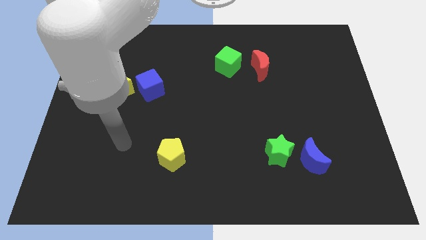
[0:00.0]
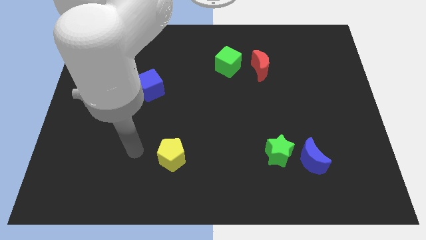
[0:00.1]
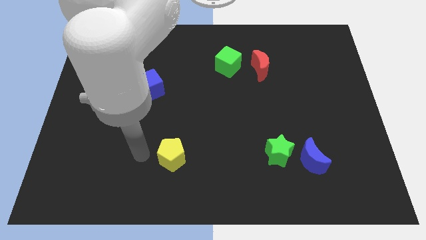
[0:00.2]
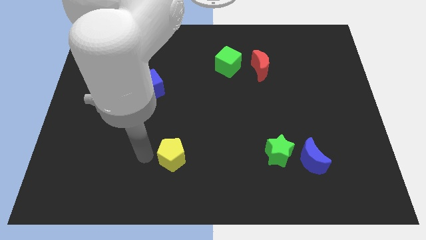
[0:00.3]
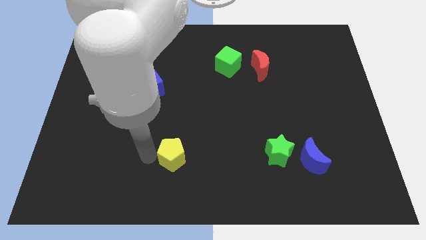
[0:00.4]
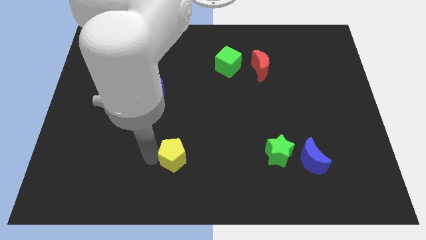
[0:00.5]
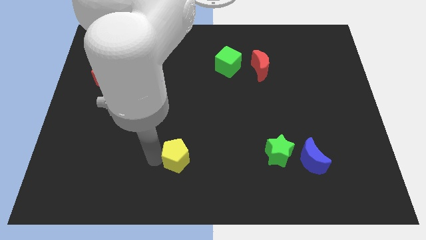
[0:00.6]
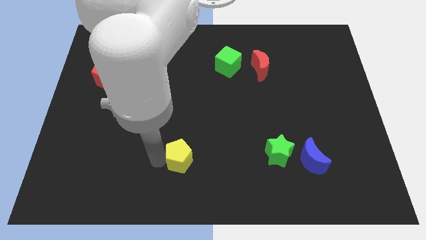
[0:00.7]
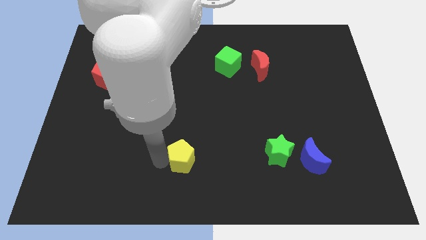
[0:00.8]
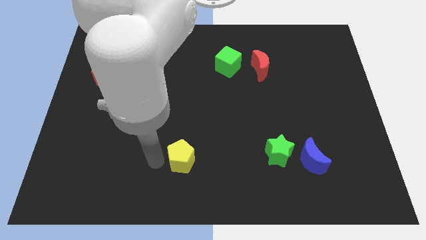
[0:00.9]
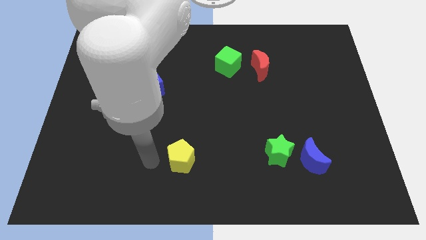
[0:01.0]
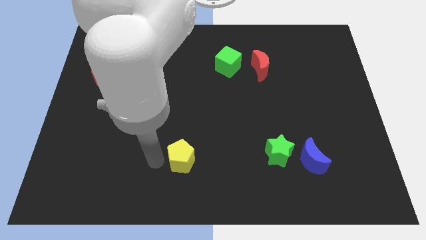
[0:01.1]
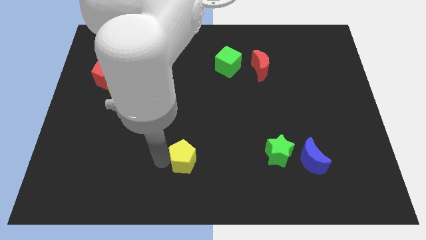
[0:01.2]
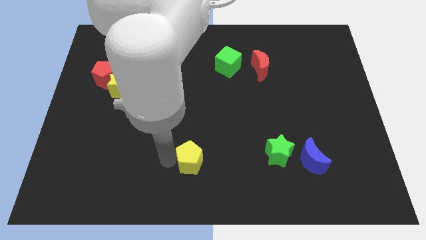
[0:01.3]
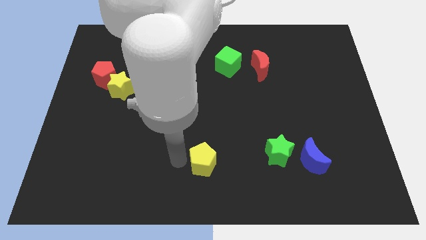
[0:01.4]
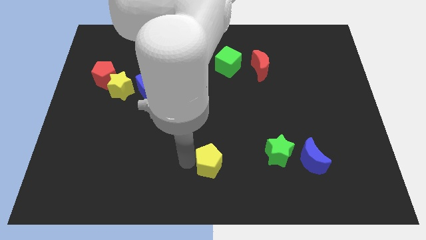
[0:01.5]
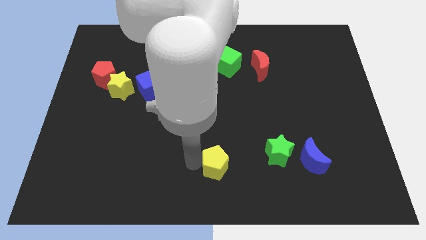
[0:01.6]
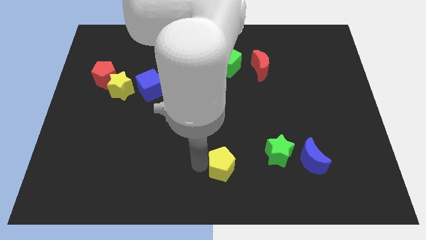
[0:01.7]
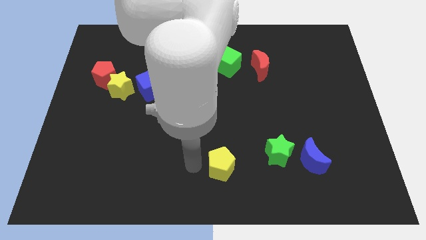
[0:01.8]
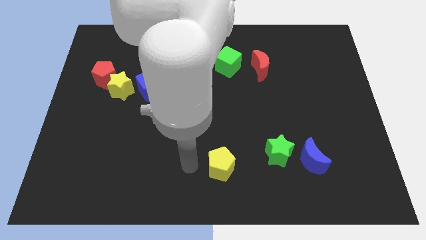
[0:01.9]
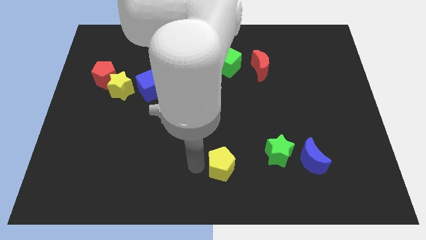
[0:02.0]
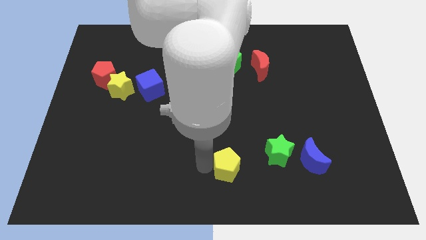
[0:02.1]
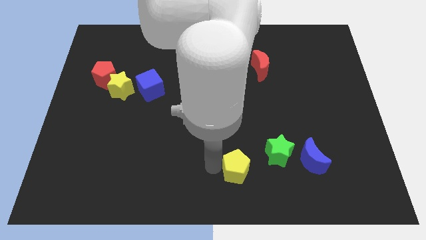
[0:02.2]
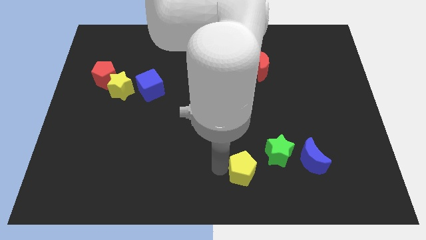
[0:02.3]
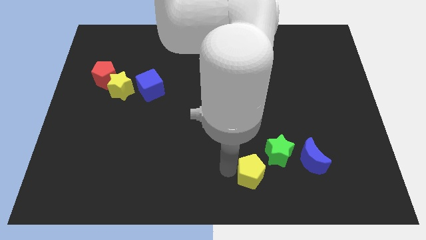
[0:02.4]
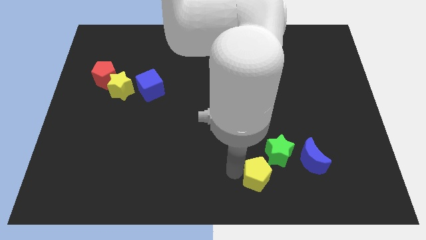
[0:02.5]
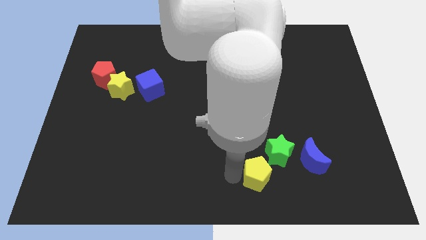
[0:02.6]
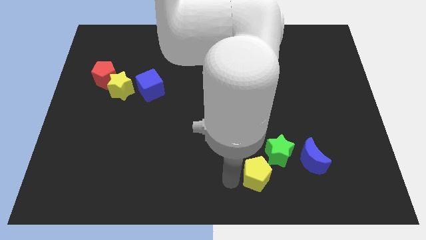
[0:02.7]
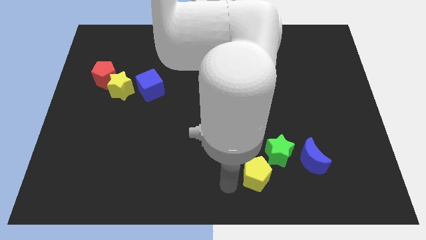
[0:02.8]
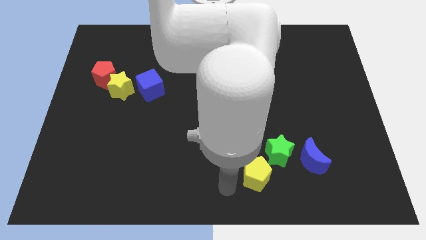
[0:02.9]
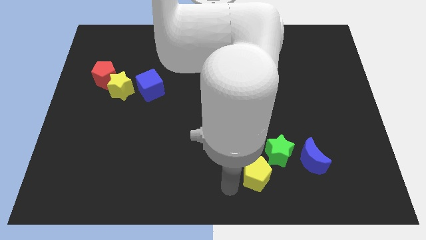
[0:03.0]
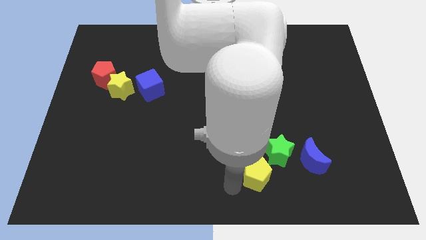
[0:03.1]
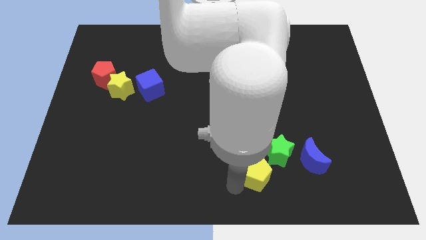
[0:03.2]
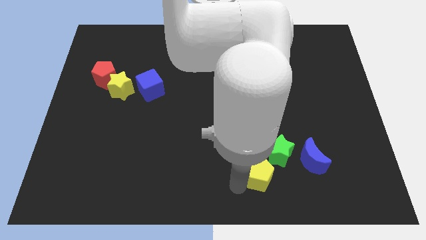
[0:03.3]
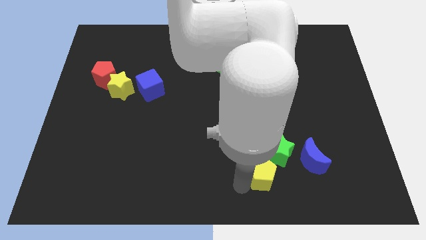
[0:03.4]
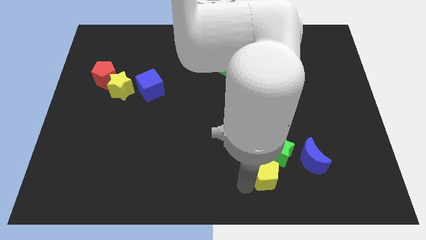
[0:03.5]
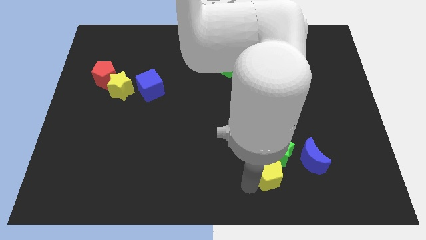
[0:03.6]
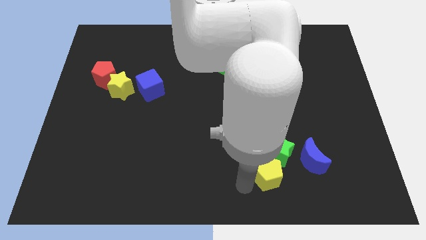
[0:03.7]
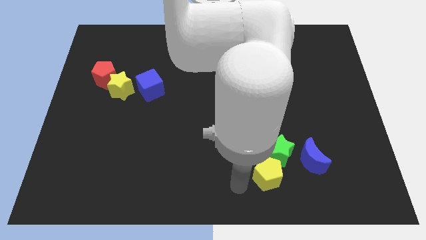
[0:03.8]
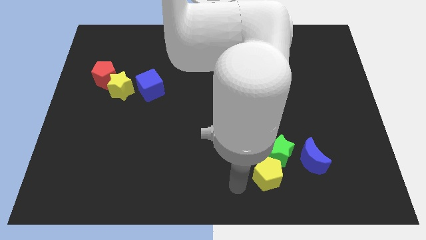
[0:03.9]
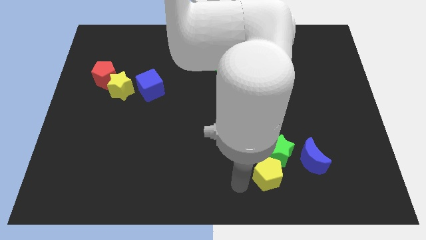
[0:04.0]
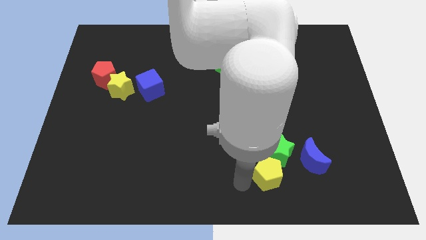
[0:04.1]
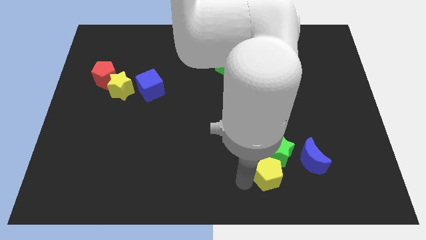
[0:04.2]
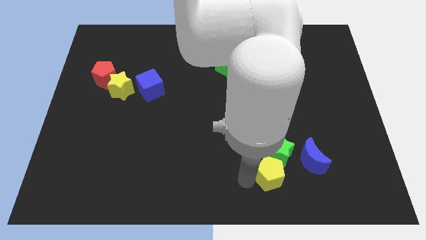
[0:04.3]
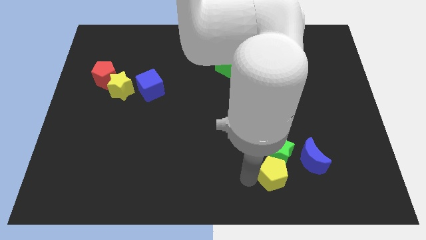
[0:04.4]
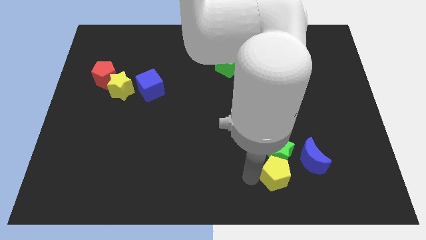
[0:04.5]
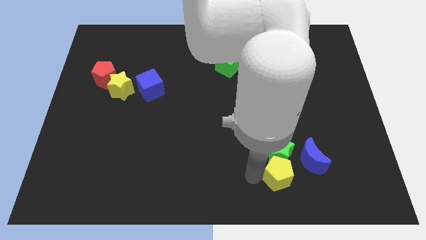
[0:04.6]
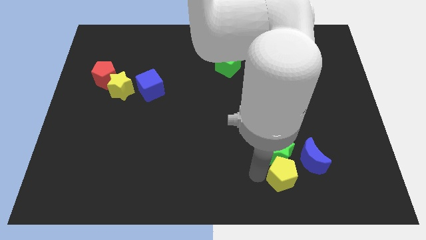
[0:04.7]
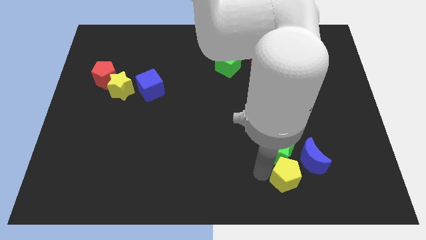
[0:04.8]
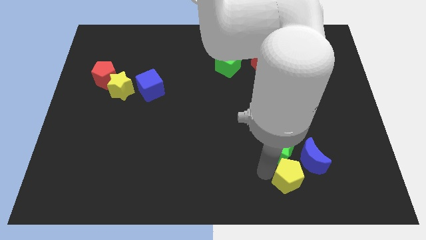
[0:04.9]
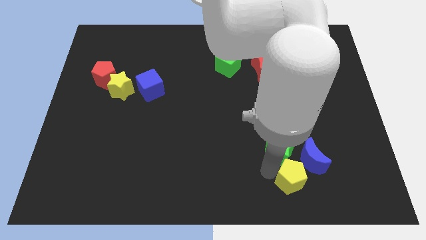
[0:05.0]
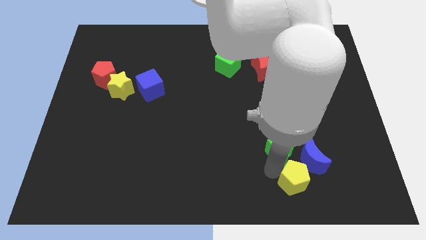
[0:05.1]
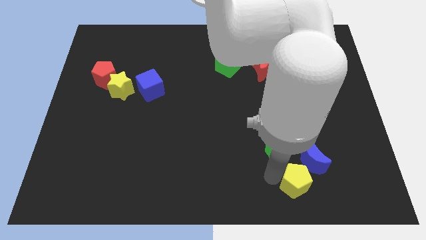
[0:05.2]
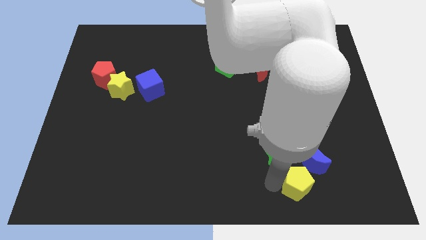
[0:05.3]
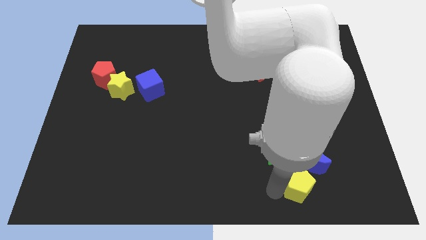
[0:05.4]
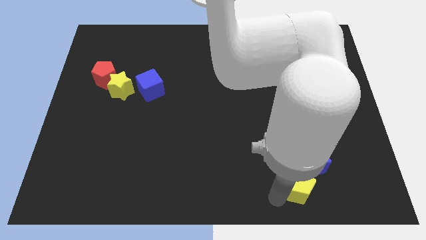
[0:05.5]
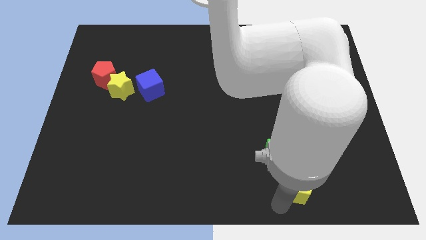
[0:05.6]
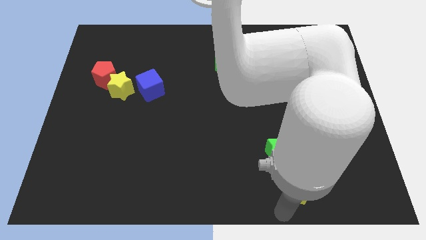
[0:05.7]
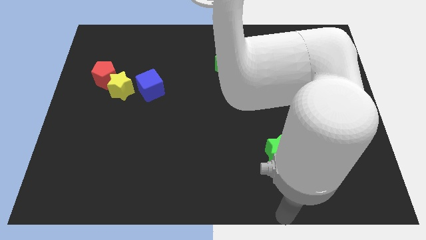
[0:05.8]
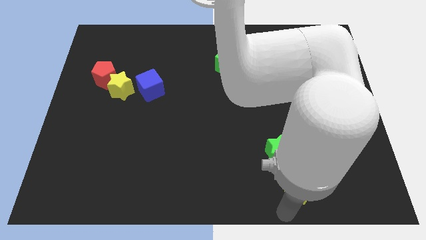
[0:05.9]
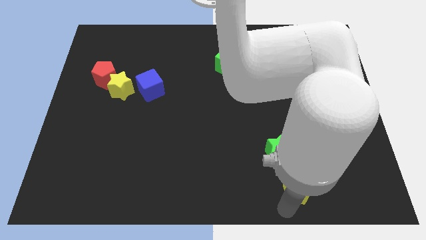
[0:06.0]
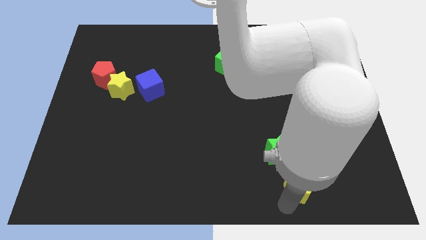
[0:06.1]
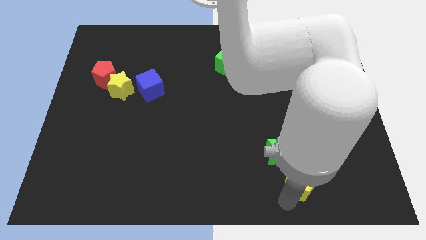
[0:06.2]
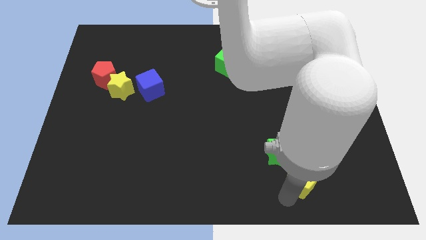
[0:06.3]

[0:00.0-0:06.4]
move the yellow pentagon towards the blue moon

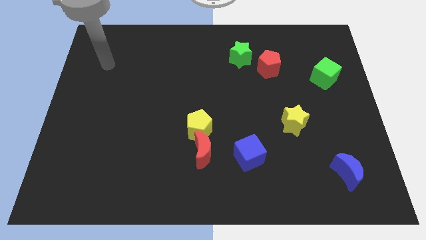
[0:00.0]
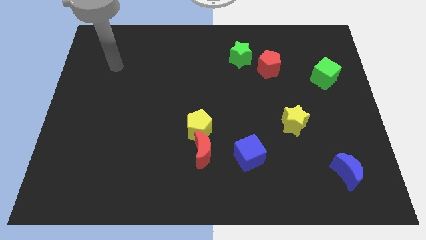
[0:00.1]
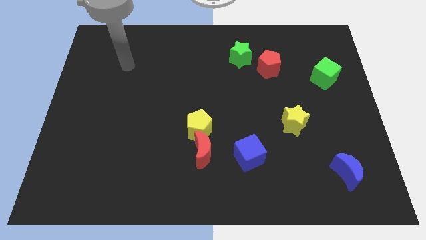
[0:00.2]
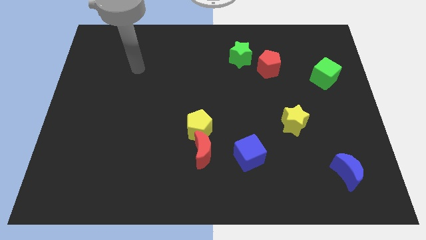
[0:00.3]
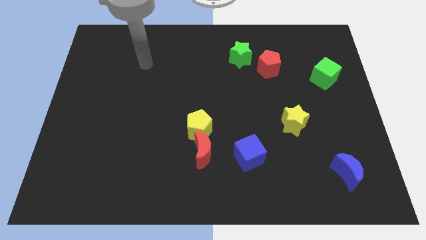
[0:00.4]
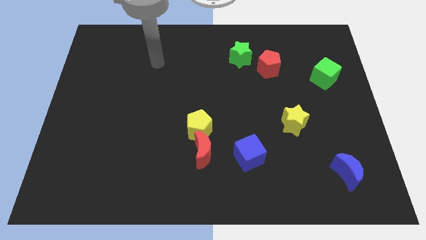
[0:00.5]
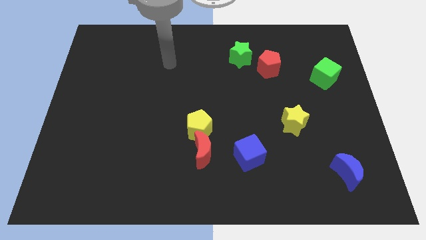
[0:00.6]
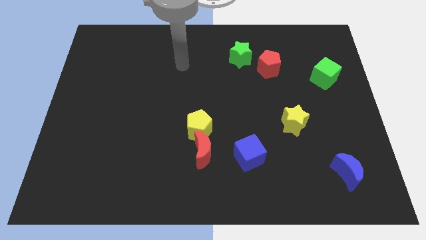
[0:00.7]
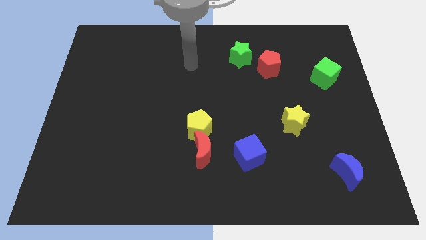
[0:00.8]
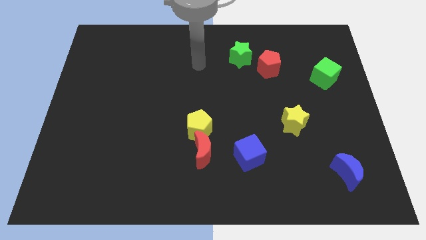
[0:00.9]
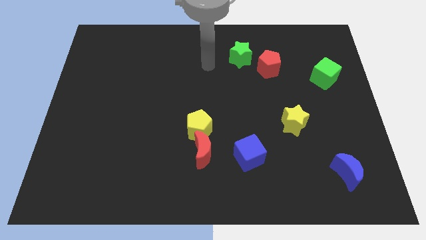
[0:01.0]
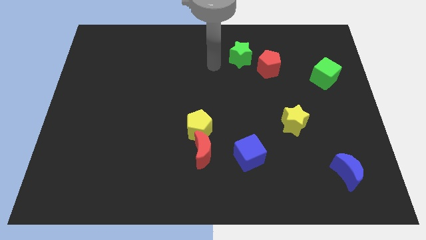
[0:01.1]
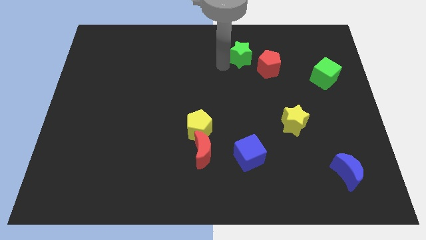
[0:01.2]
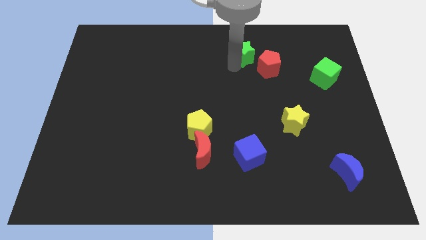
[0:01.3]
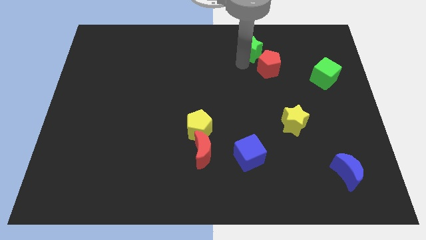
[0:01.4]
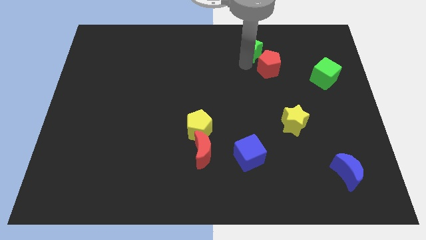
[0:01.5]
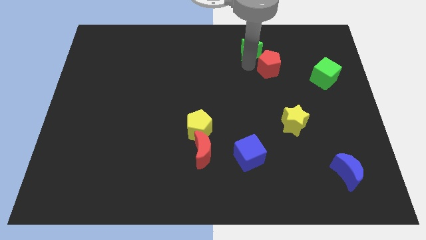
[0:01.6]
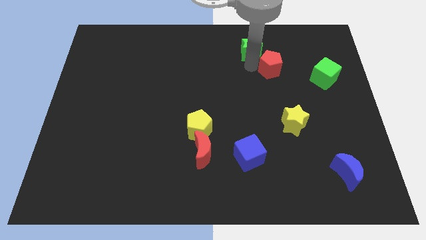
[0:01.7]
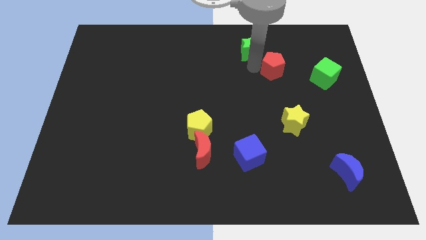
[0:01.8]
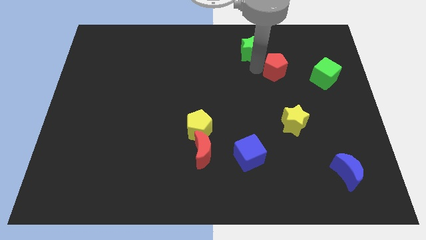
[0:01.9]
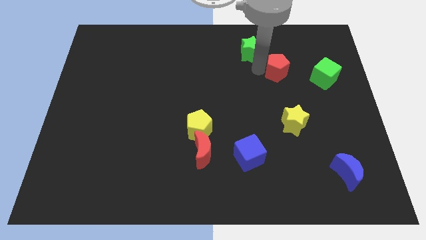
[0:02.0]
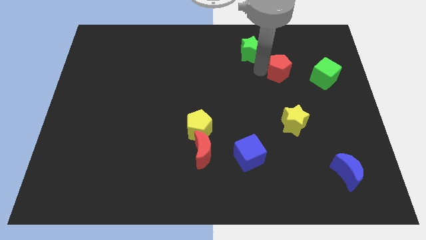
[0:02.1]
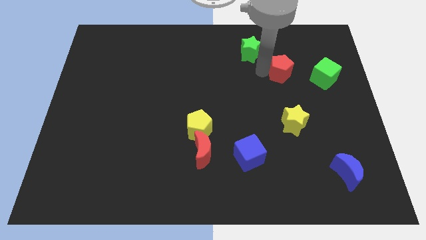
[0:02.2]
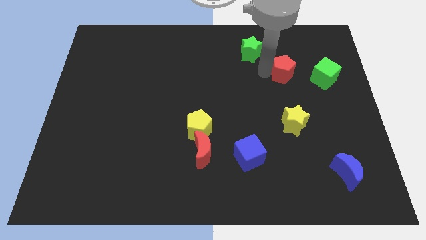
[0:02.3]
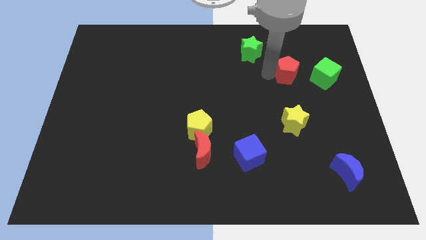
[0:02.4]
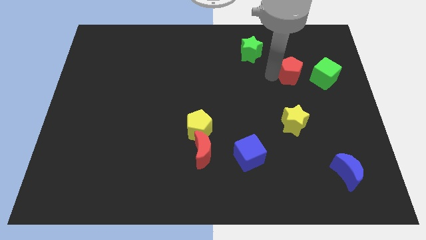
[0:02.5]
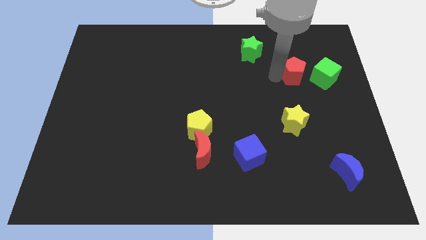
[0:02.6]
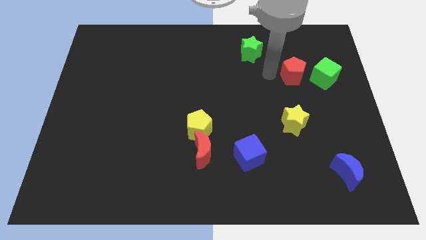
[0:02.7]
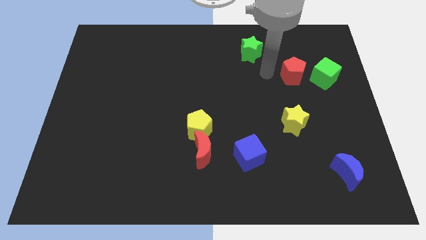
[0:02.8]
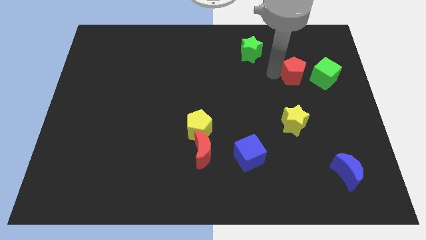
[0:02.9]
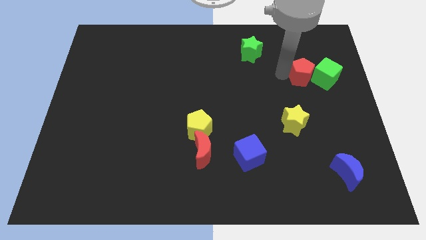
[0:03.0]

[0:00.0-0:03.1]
push the red pentagon towards the green cube
